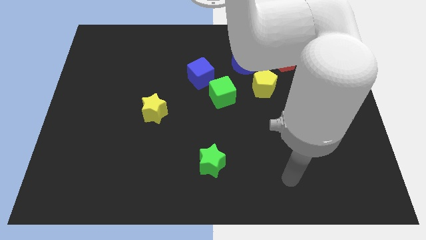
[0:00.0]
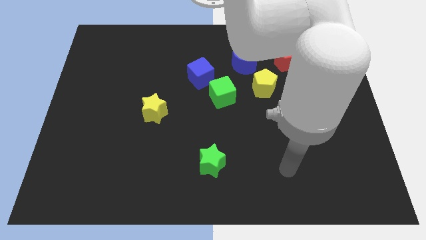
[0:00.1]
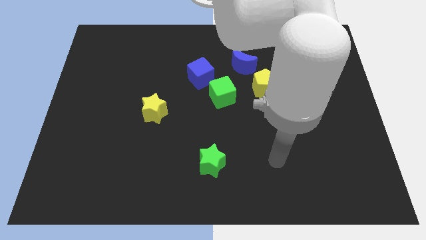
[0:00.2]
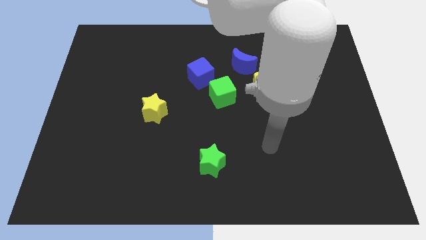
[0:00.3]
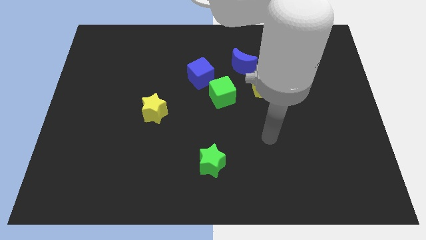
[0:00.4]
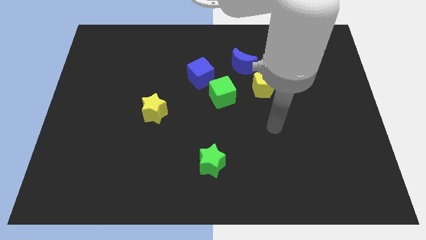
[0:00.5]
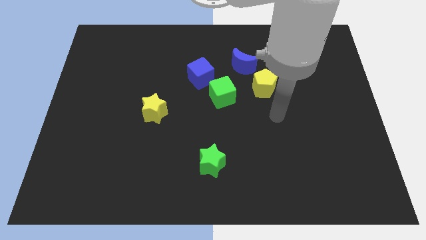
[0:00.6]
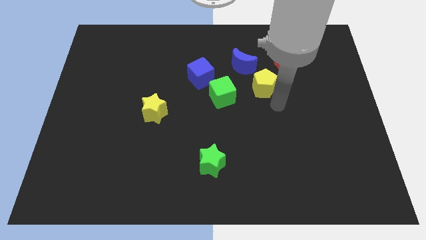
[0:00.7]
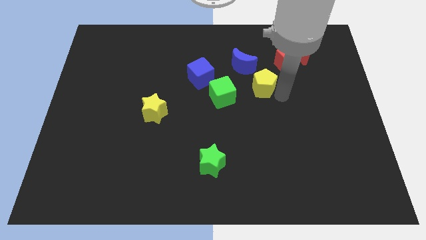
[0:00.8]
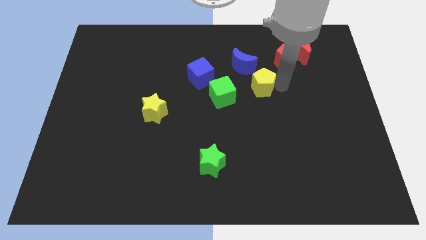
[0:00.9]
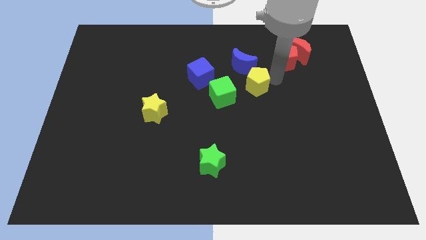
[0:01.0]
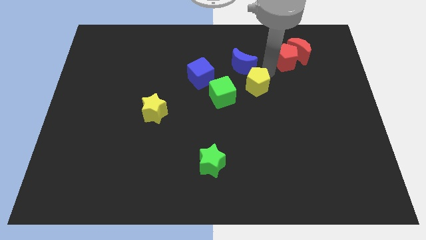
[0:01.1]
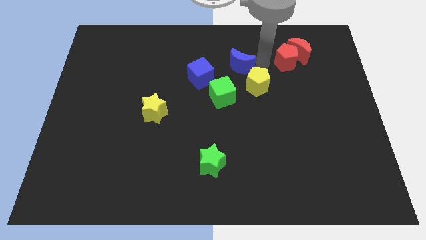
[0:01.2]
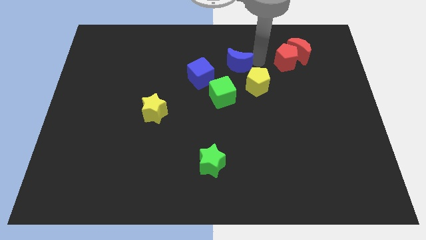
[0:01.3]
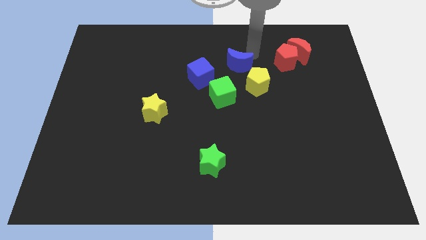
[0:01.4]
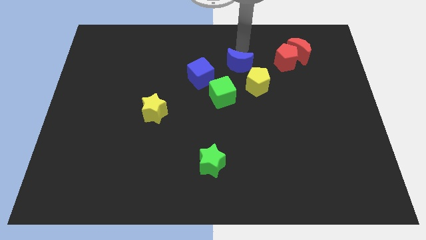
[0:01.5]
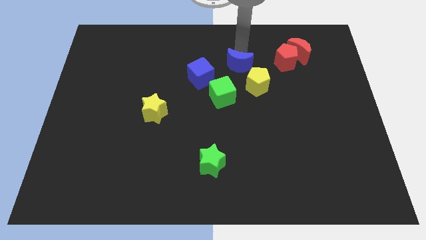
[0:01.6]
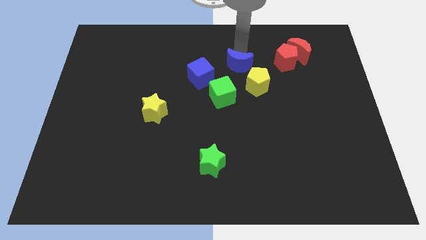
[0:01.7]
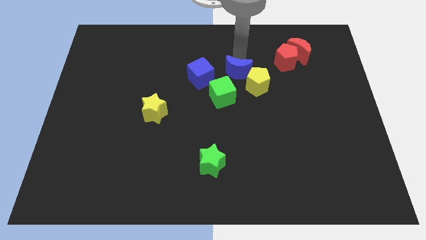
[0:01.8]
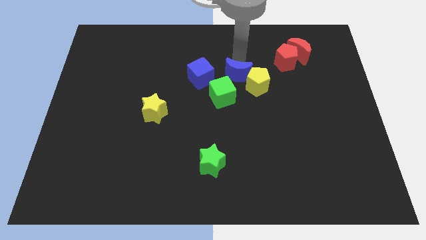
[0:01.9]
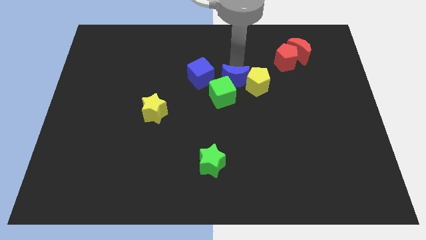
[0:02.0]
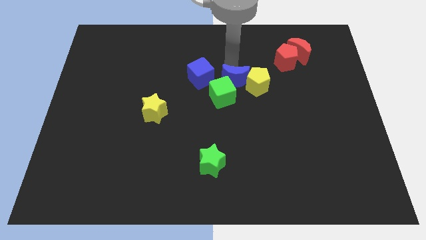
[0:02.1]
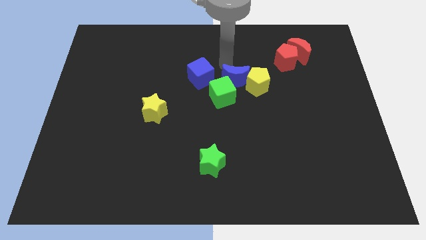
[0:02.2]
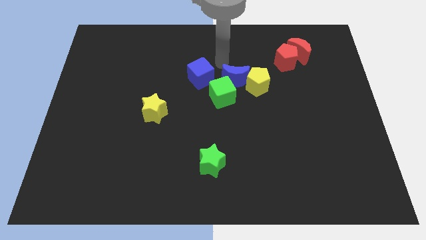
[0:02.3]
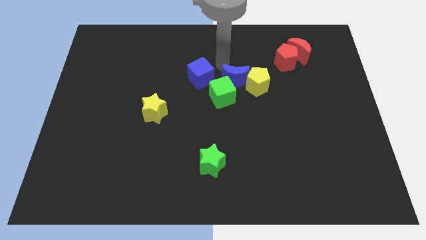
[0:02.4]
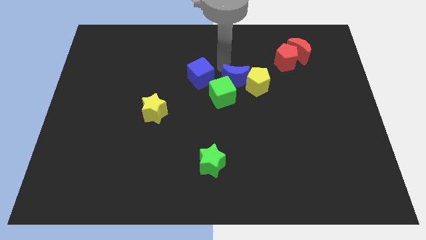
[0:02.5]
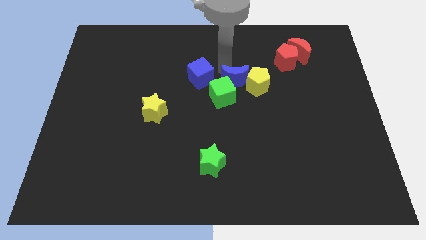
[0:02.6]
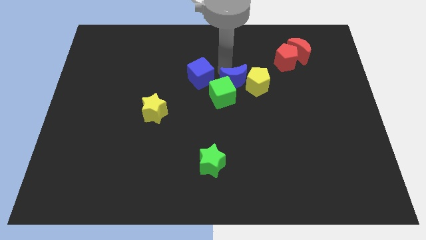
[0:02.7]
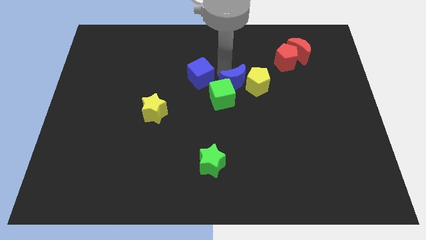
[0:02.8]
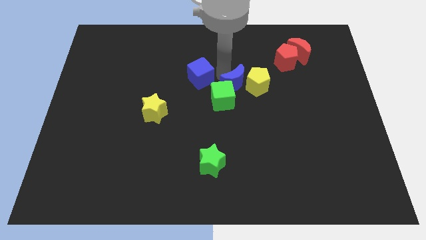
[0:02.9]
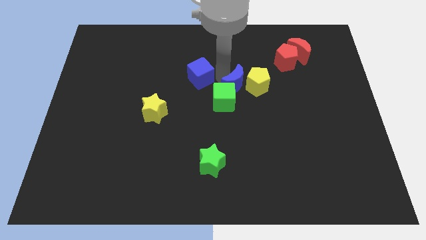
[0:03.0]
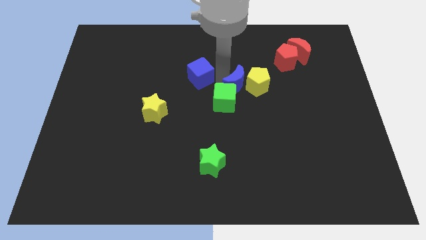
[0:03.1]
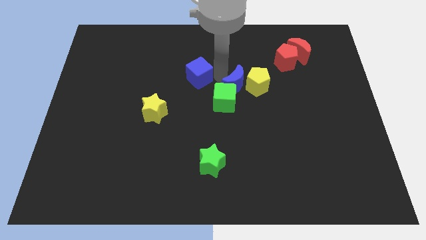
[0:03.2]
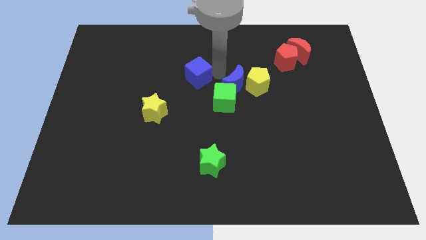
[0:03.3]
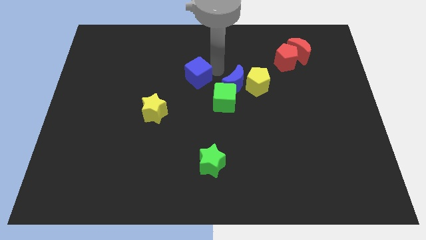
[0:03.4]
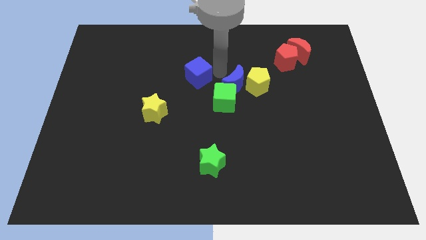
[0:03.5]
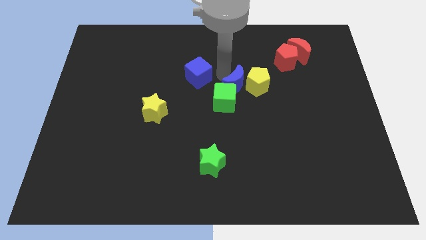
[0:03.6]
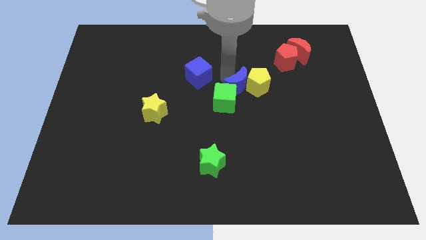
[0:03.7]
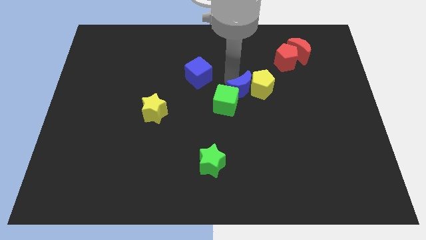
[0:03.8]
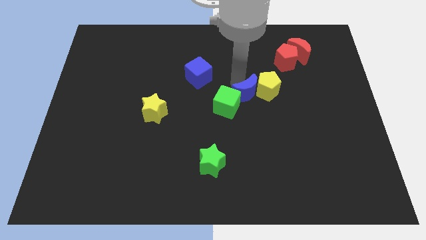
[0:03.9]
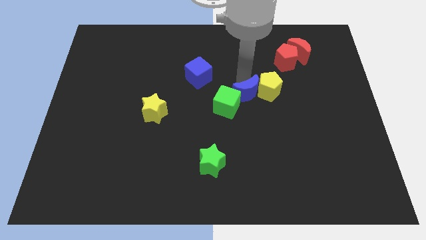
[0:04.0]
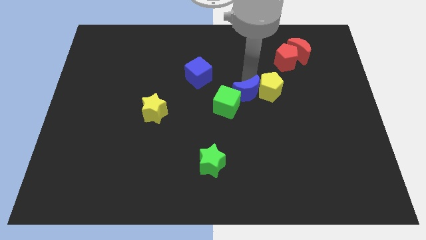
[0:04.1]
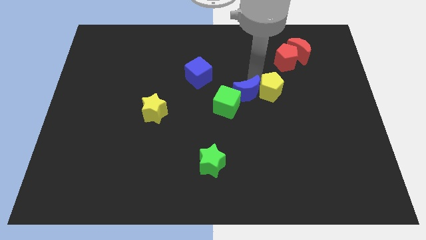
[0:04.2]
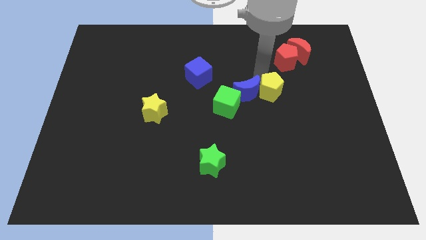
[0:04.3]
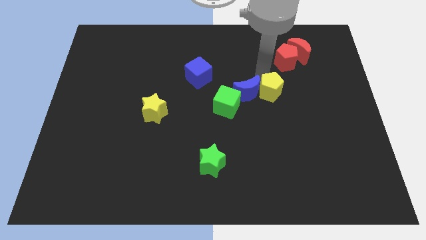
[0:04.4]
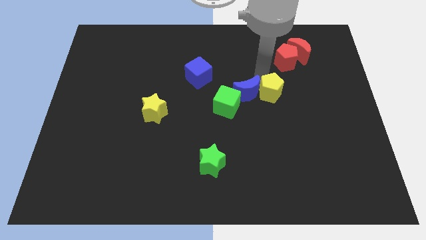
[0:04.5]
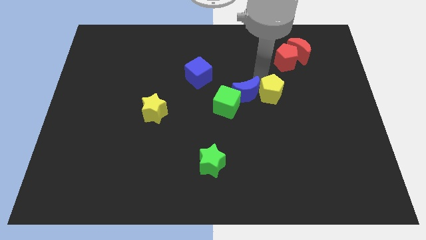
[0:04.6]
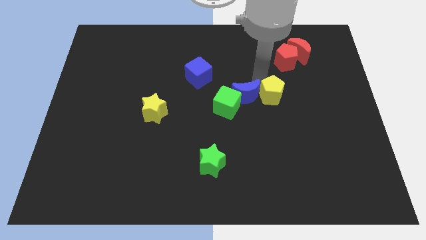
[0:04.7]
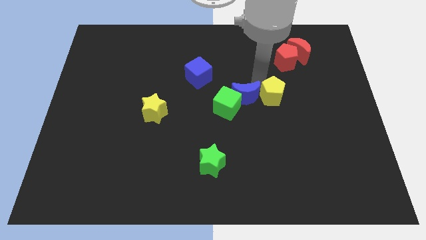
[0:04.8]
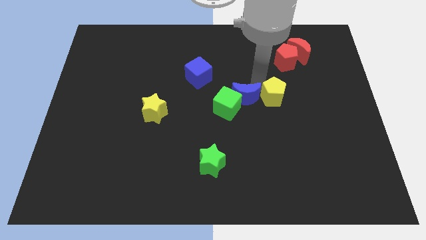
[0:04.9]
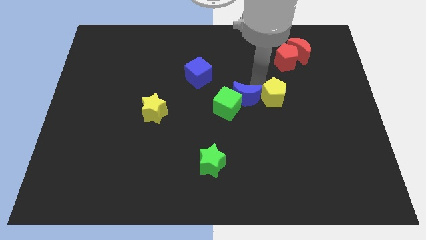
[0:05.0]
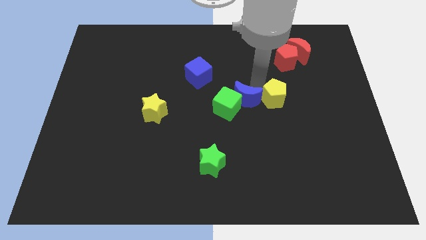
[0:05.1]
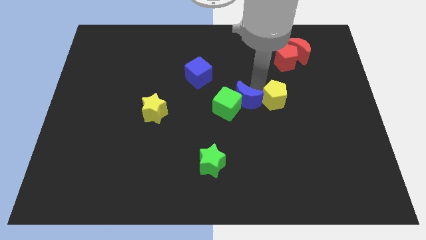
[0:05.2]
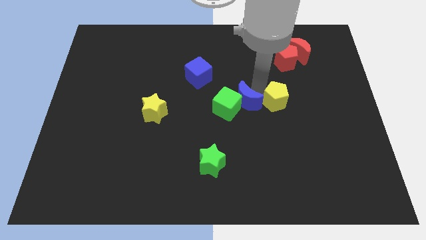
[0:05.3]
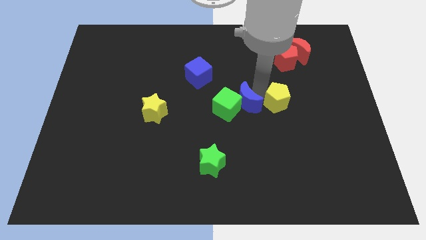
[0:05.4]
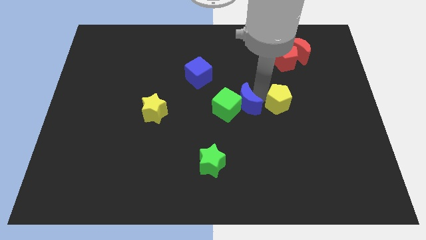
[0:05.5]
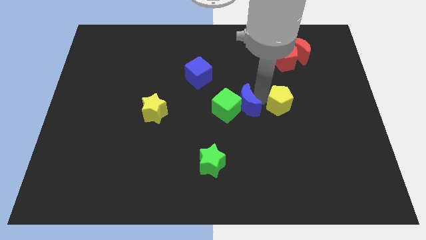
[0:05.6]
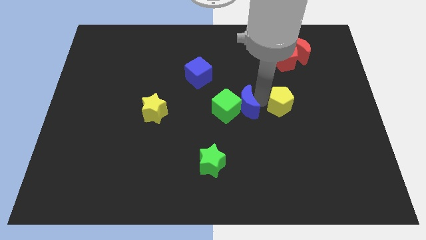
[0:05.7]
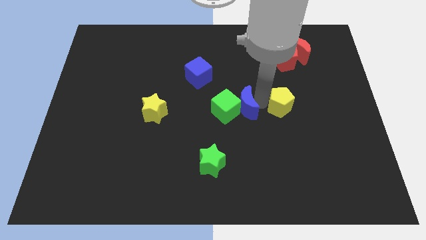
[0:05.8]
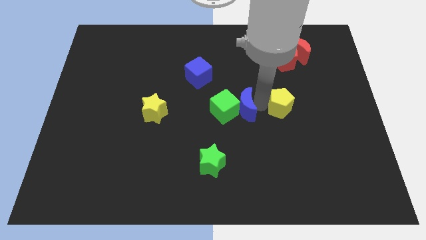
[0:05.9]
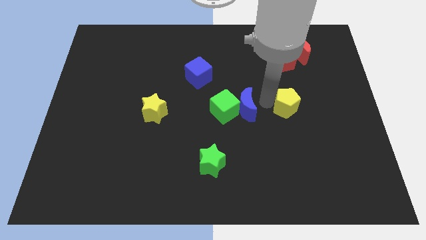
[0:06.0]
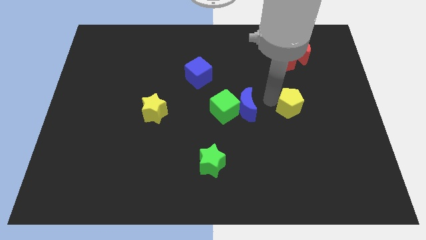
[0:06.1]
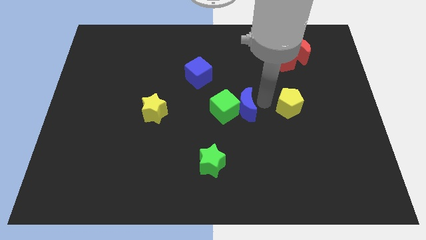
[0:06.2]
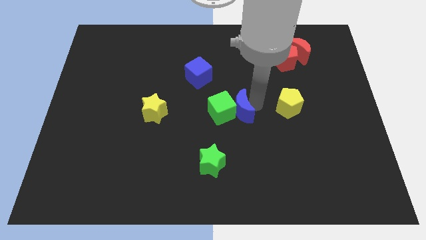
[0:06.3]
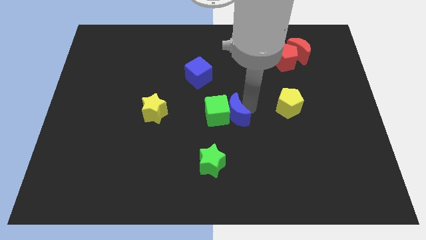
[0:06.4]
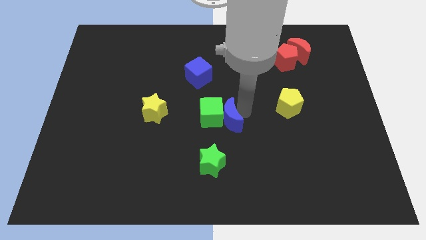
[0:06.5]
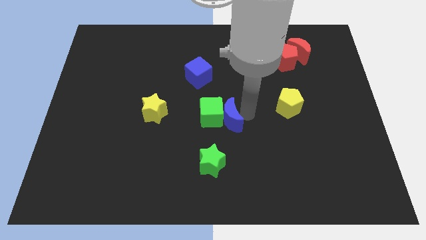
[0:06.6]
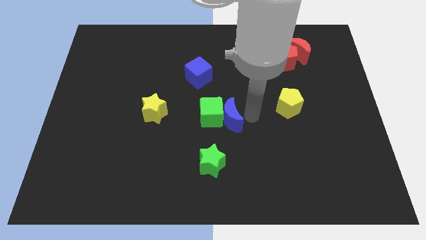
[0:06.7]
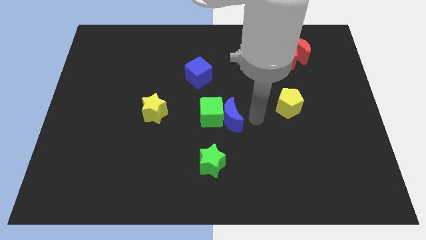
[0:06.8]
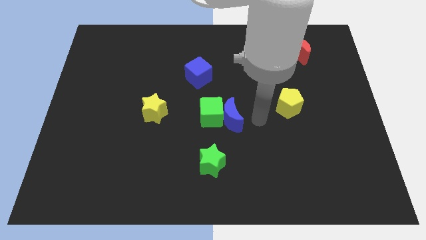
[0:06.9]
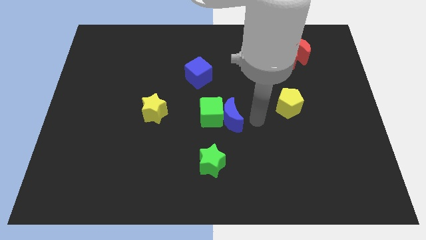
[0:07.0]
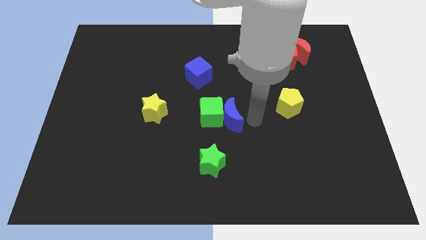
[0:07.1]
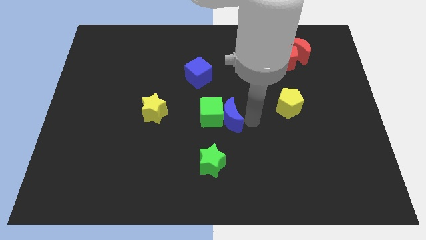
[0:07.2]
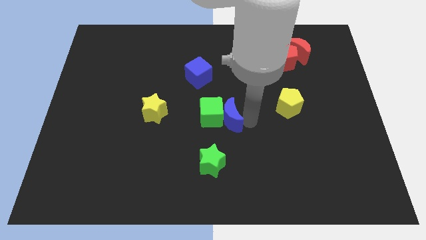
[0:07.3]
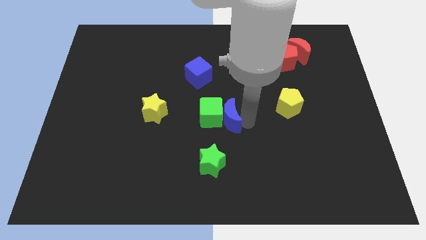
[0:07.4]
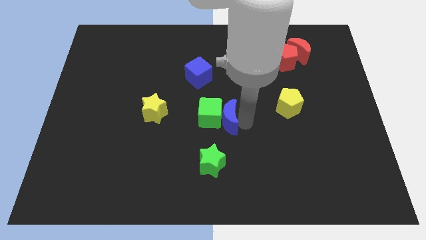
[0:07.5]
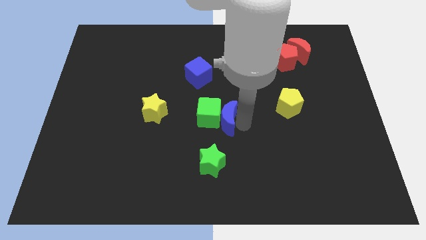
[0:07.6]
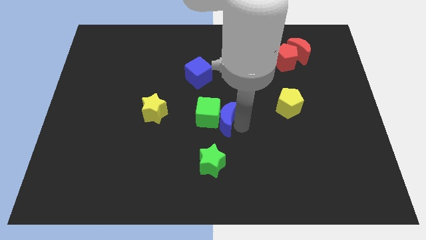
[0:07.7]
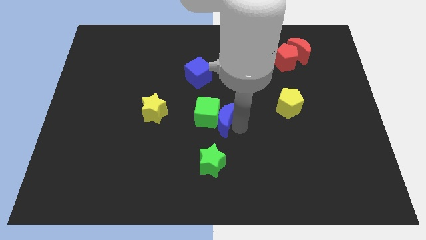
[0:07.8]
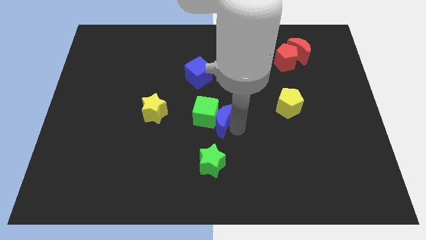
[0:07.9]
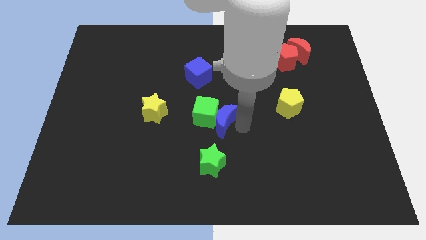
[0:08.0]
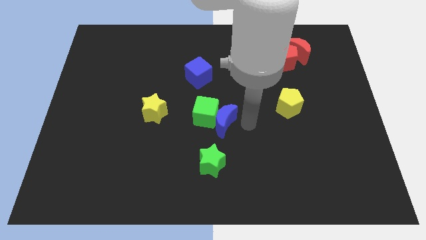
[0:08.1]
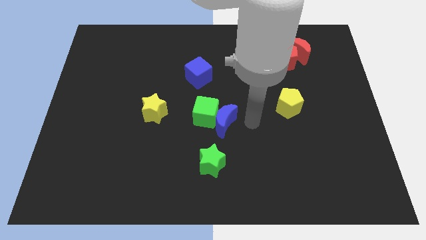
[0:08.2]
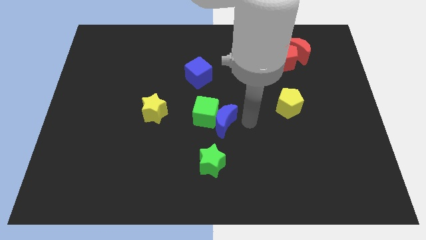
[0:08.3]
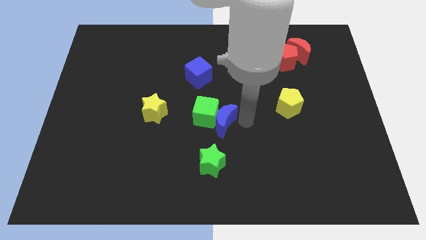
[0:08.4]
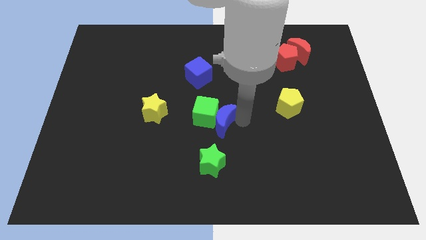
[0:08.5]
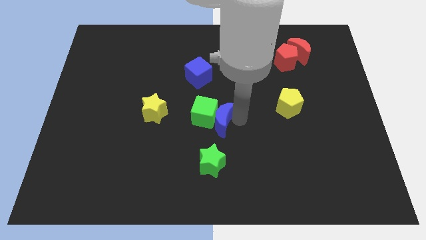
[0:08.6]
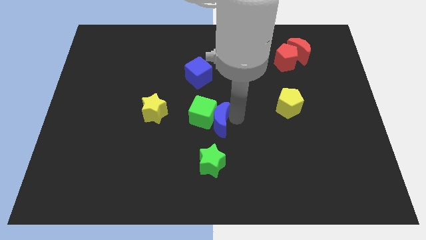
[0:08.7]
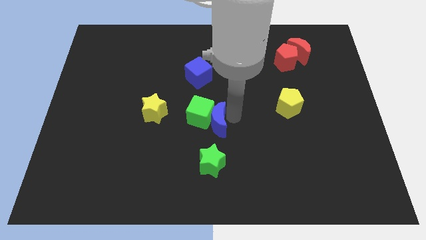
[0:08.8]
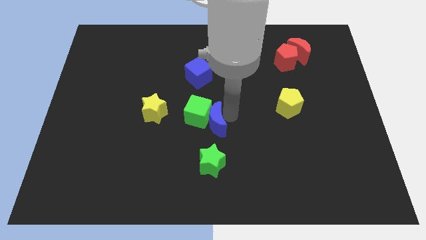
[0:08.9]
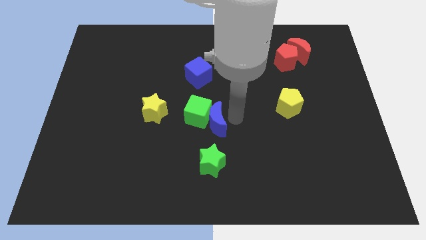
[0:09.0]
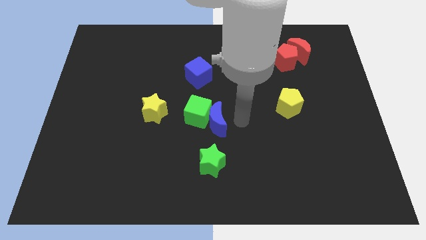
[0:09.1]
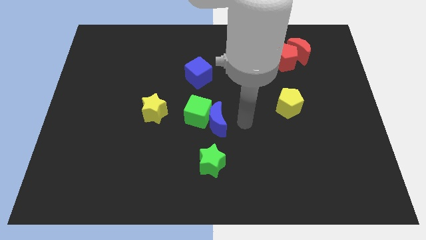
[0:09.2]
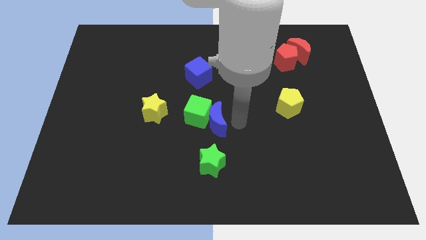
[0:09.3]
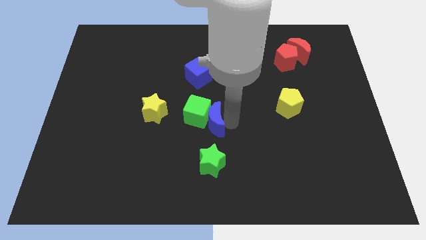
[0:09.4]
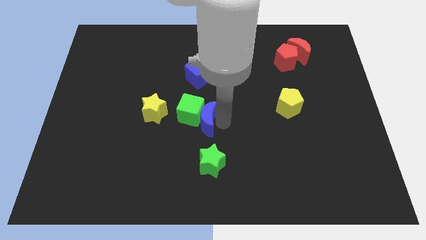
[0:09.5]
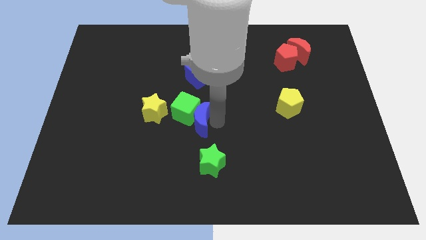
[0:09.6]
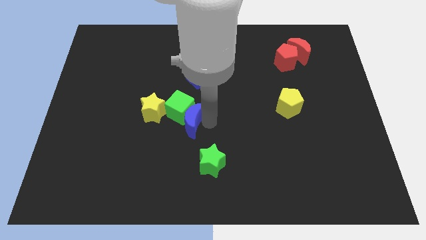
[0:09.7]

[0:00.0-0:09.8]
push the blue moon diagonally downwards and to the left
